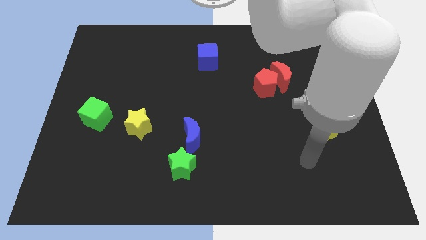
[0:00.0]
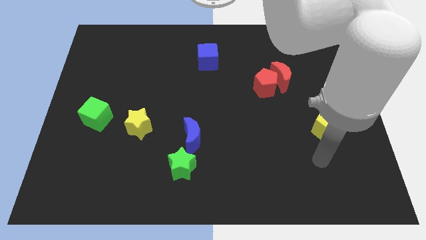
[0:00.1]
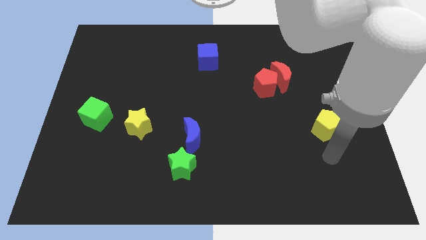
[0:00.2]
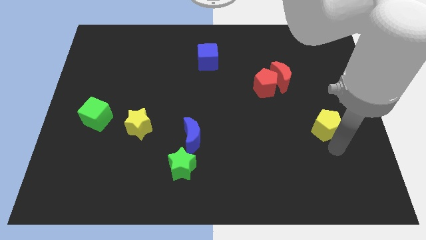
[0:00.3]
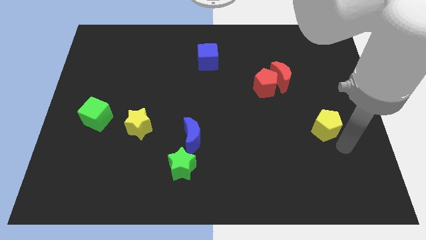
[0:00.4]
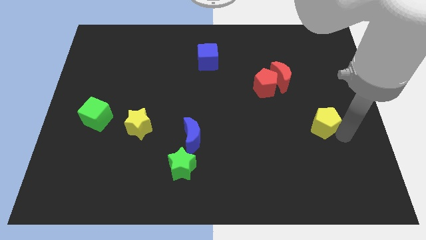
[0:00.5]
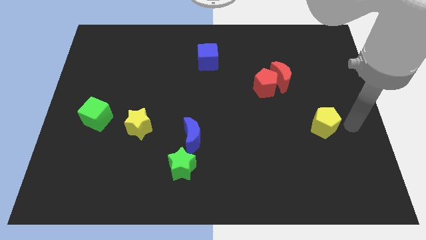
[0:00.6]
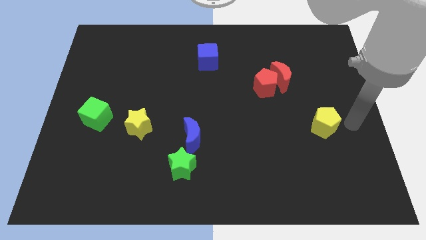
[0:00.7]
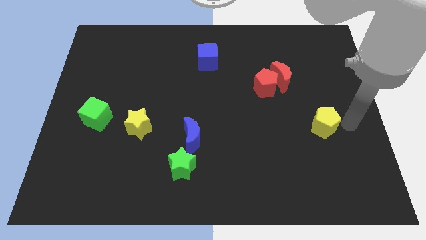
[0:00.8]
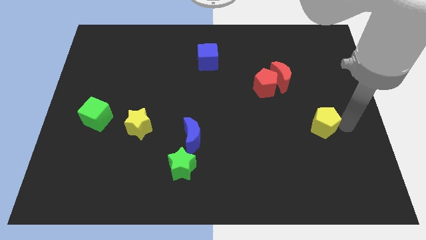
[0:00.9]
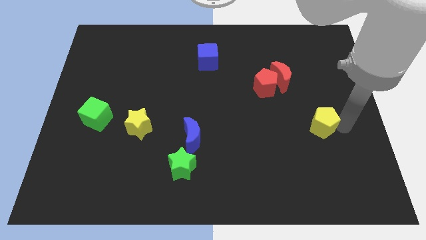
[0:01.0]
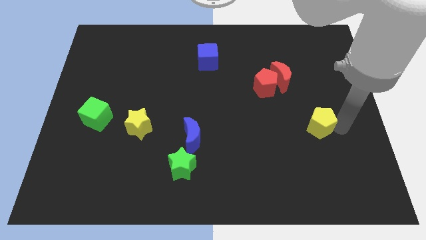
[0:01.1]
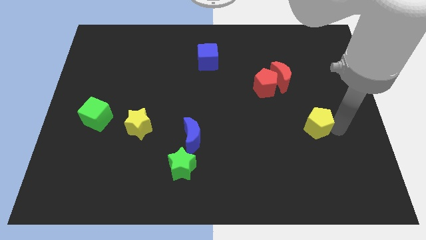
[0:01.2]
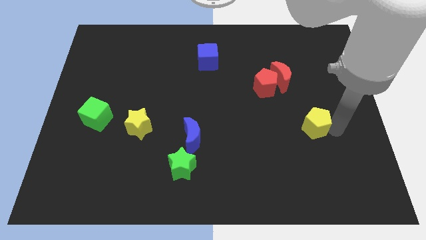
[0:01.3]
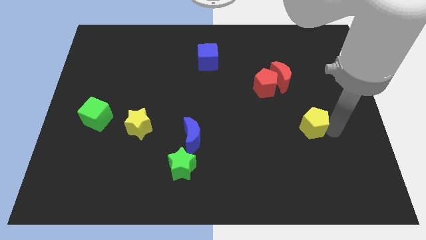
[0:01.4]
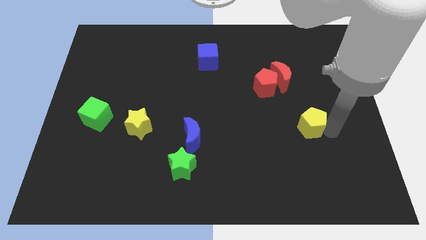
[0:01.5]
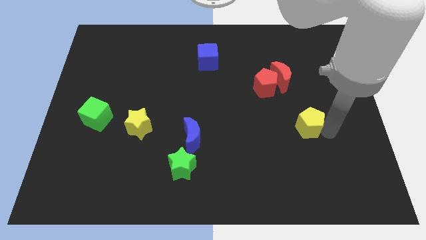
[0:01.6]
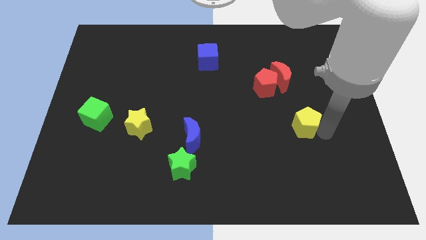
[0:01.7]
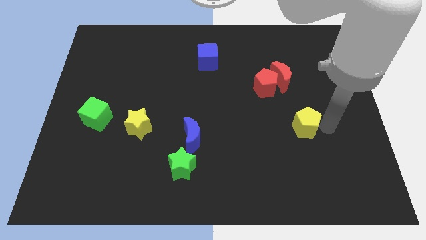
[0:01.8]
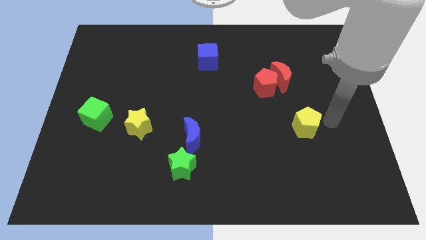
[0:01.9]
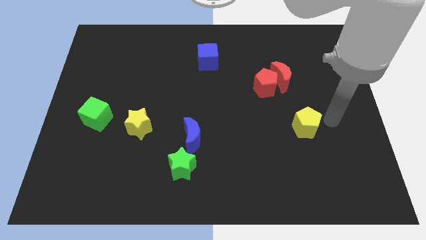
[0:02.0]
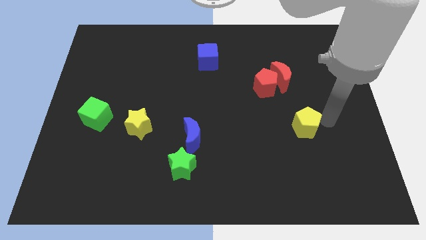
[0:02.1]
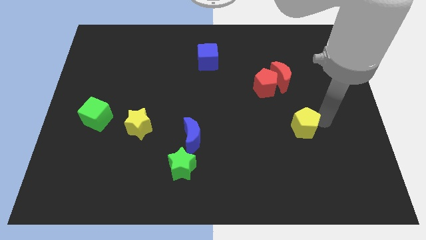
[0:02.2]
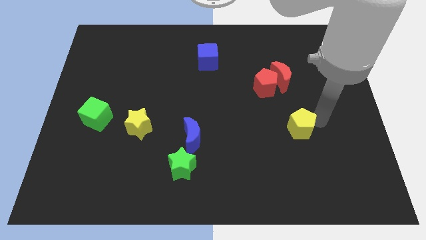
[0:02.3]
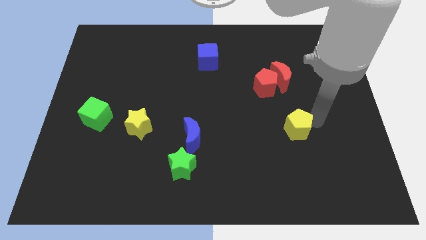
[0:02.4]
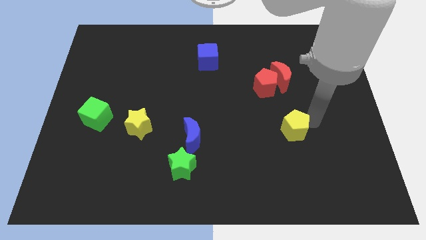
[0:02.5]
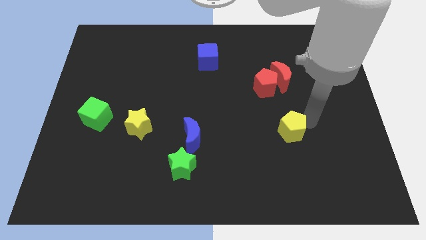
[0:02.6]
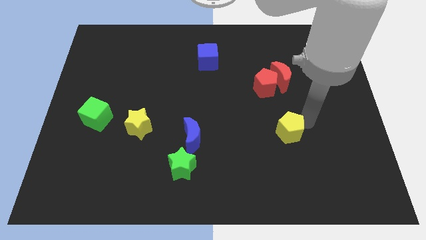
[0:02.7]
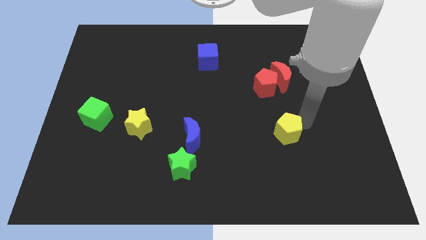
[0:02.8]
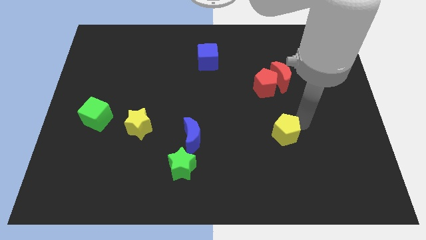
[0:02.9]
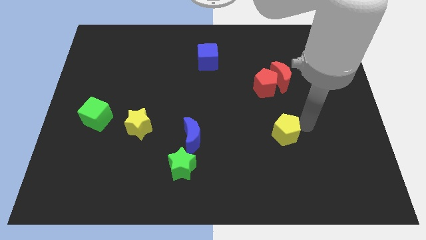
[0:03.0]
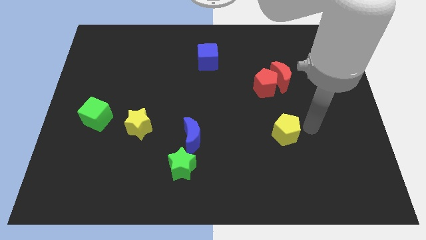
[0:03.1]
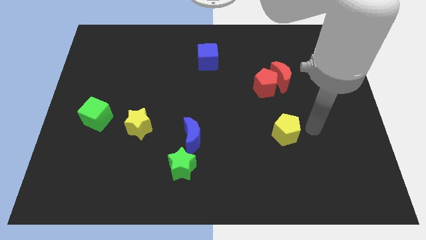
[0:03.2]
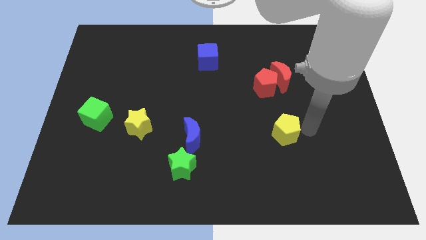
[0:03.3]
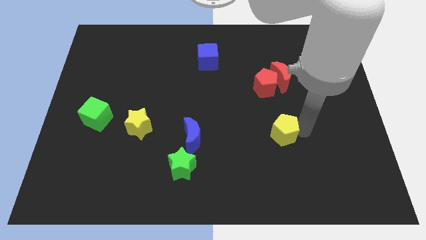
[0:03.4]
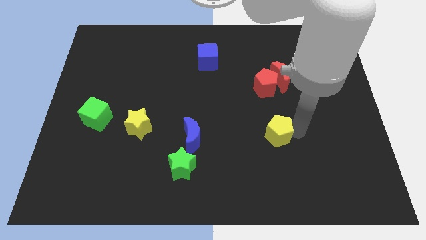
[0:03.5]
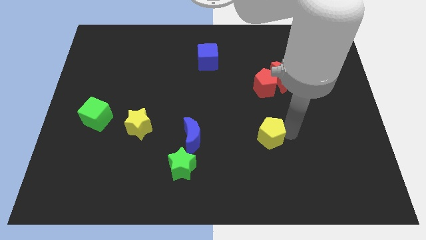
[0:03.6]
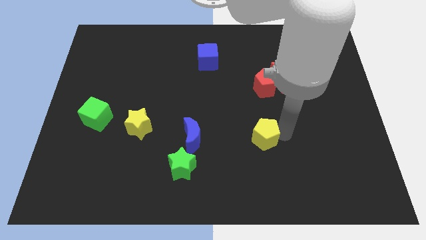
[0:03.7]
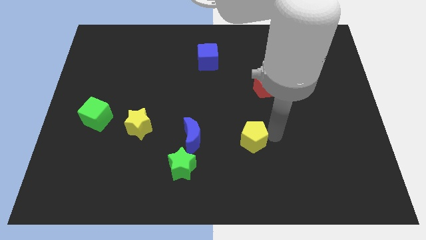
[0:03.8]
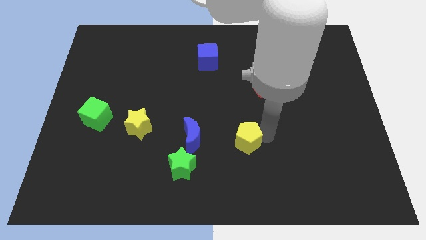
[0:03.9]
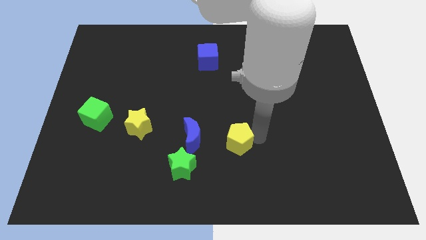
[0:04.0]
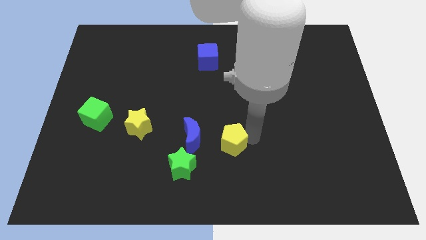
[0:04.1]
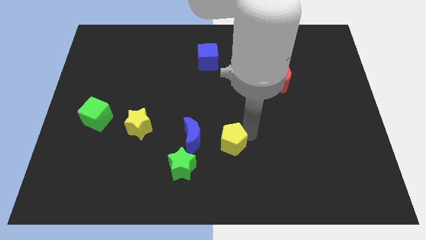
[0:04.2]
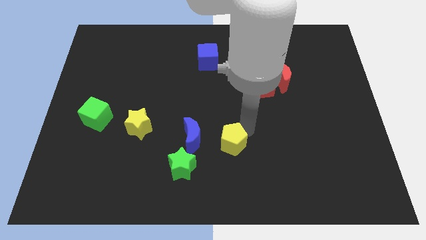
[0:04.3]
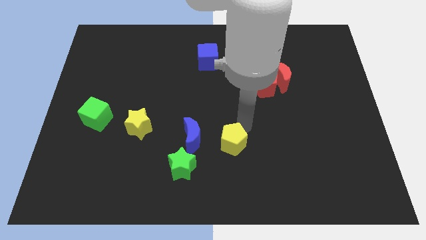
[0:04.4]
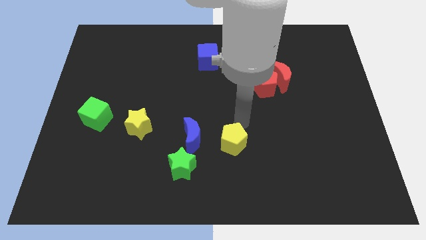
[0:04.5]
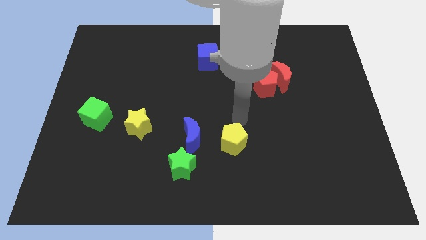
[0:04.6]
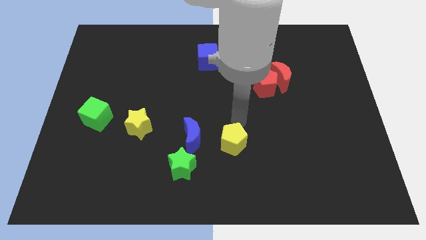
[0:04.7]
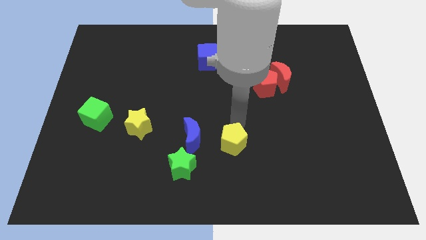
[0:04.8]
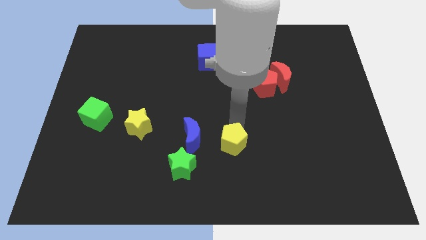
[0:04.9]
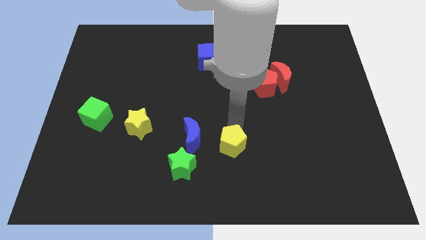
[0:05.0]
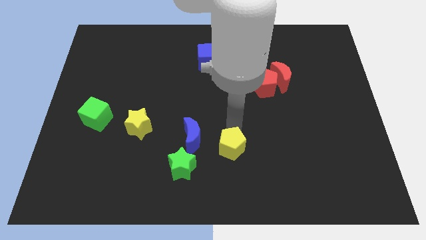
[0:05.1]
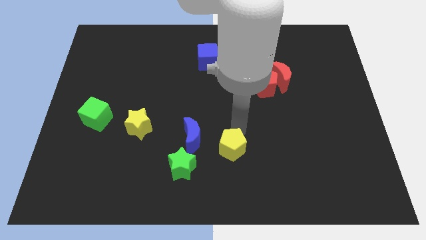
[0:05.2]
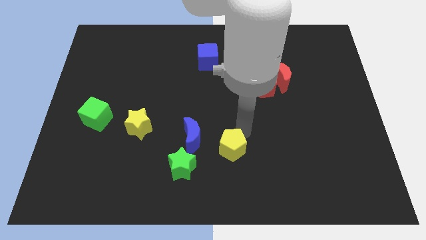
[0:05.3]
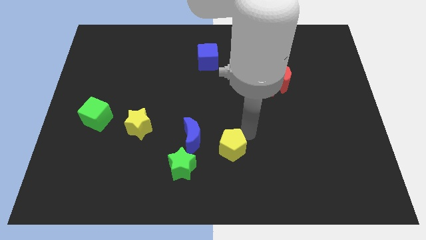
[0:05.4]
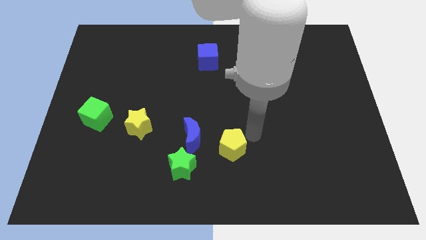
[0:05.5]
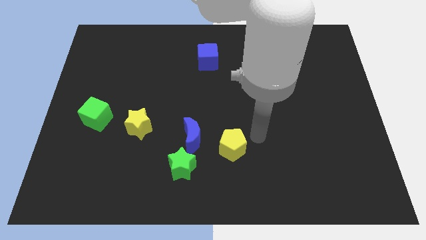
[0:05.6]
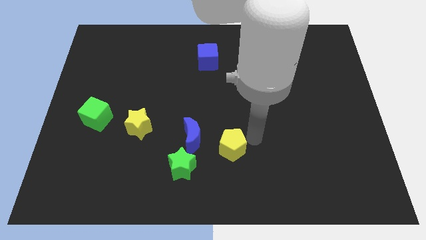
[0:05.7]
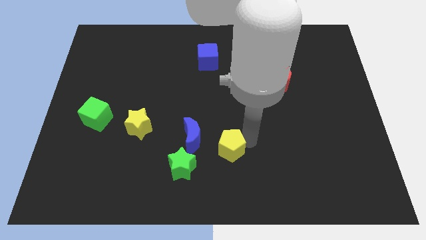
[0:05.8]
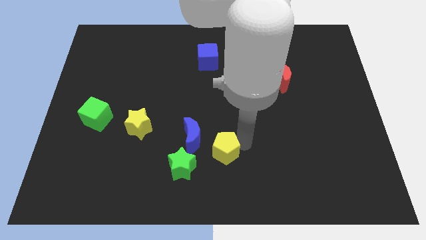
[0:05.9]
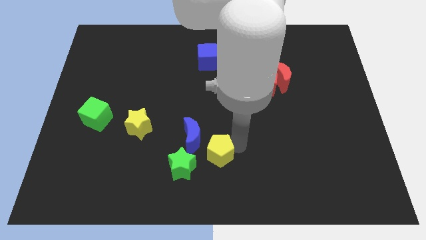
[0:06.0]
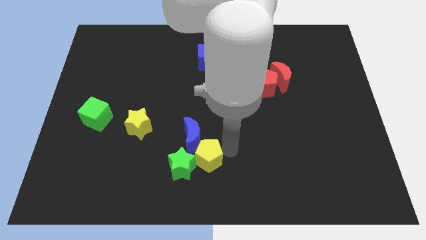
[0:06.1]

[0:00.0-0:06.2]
put the yellow pentagon next to the green star
